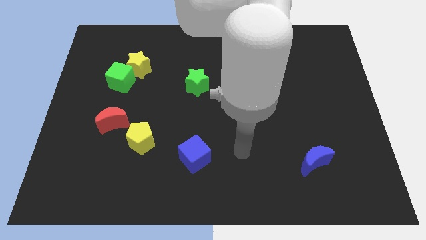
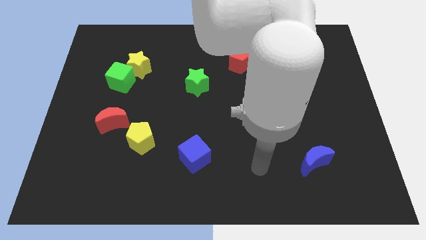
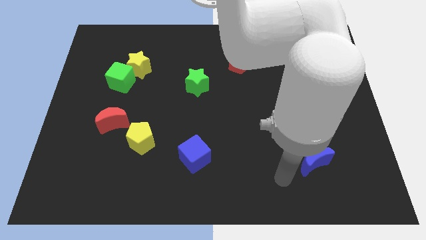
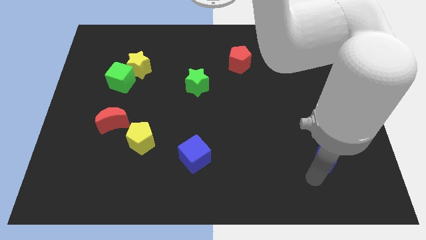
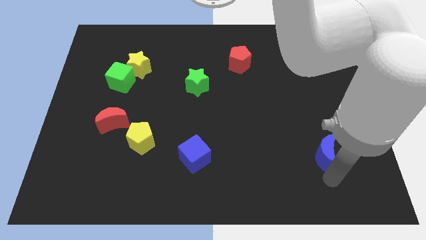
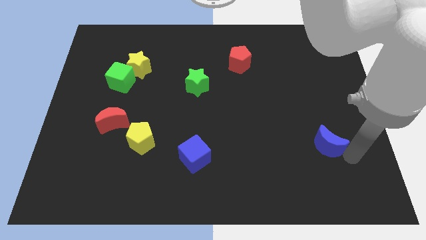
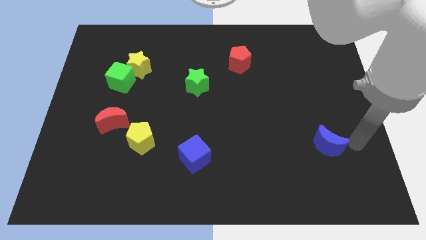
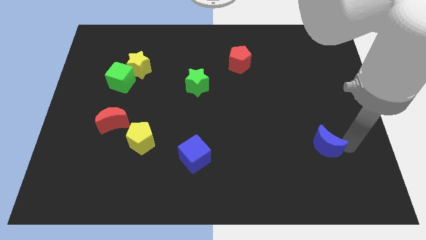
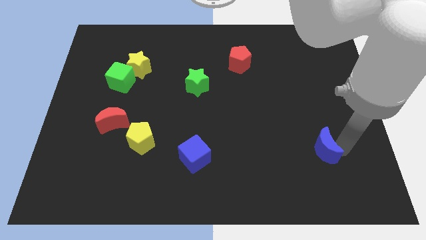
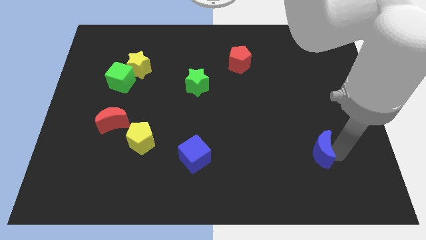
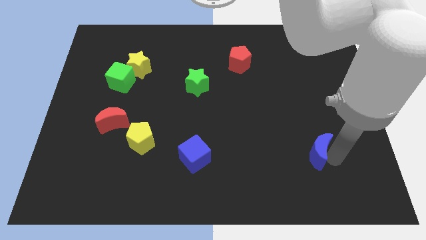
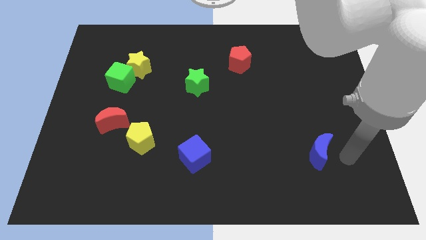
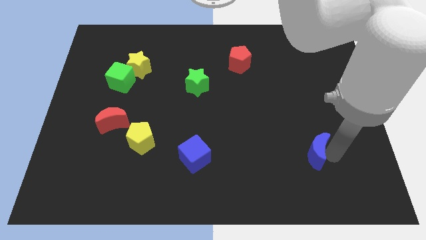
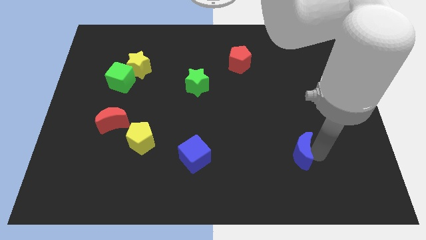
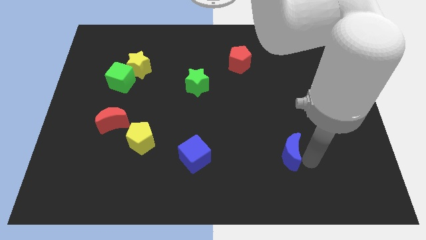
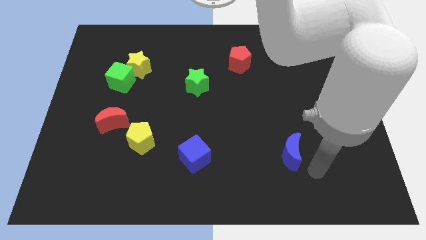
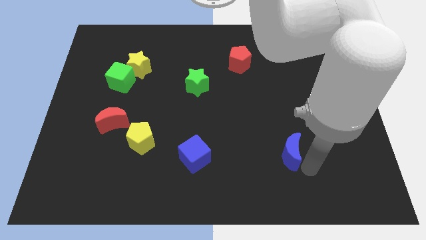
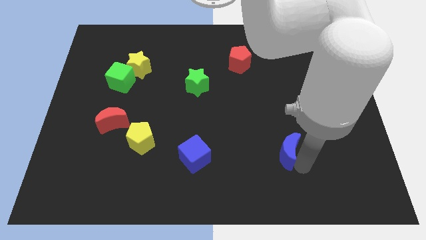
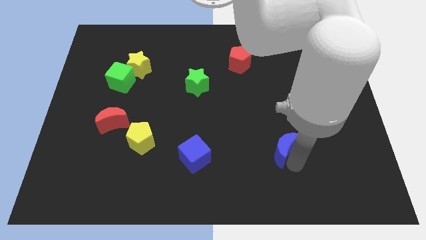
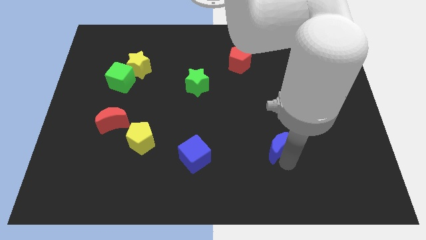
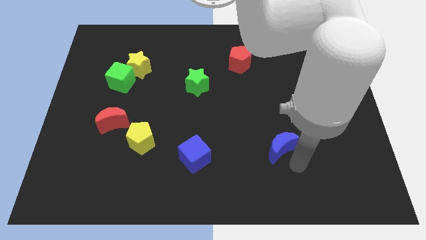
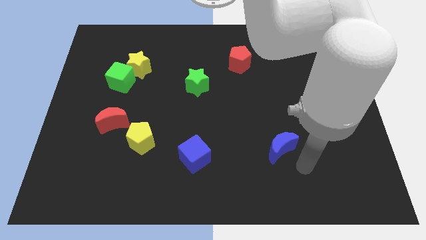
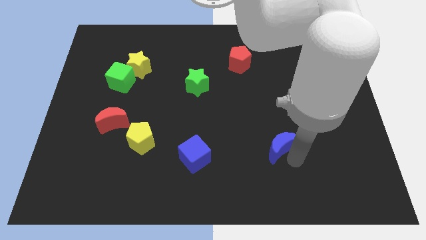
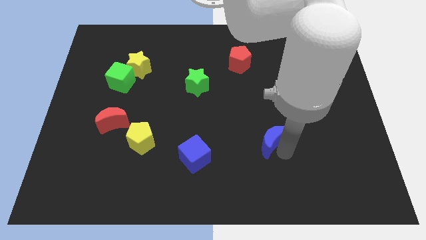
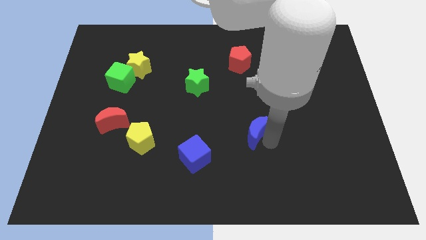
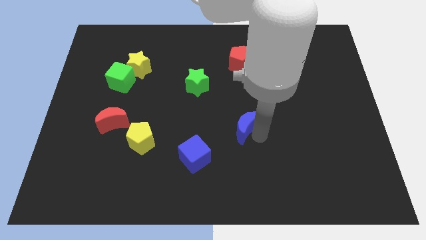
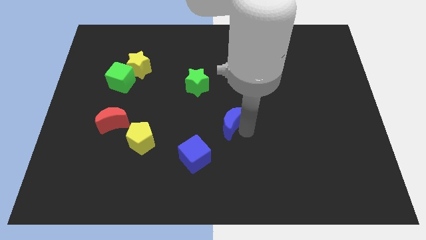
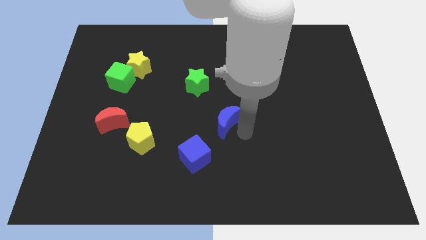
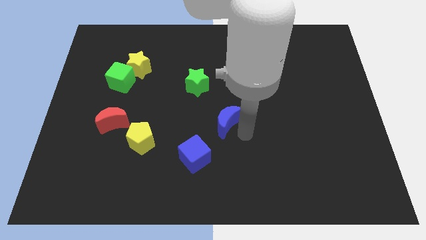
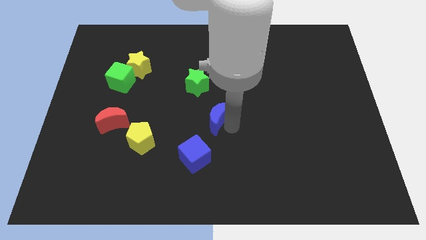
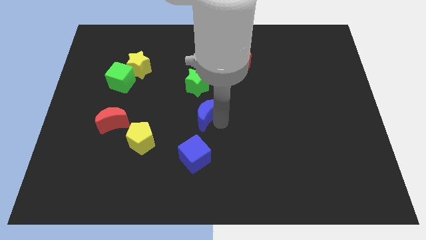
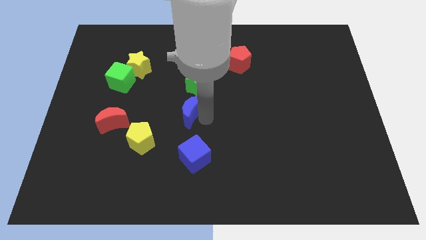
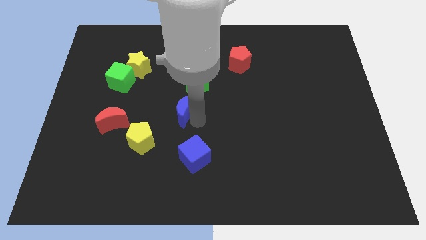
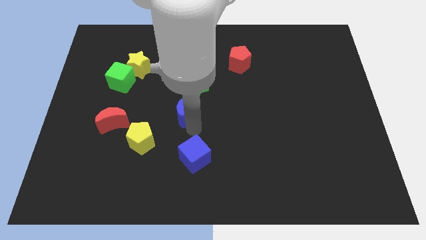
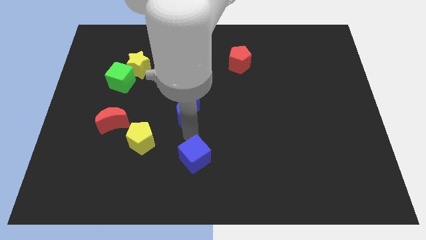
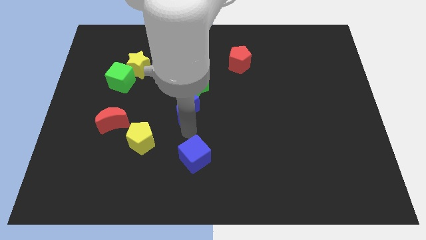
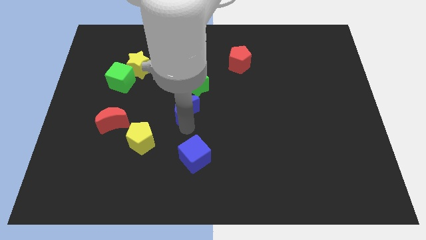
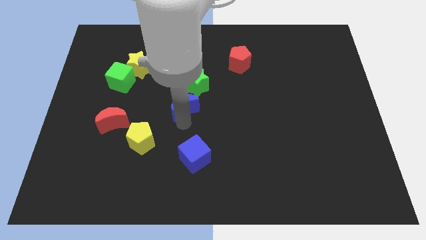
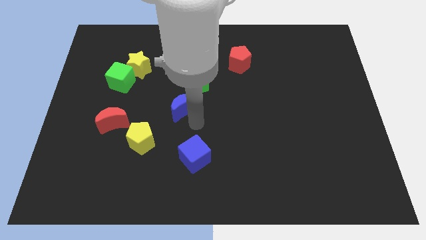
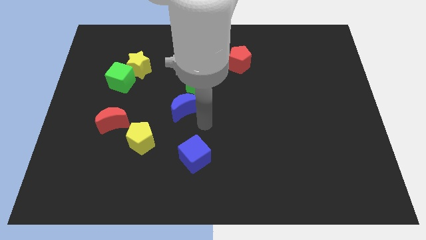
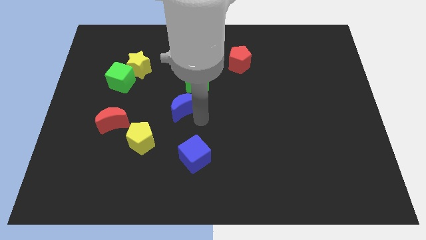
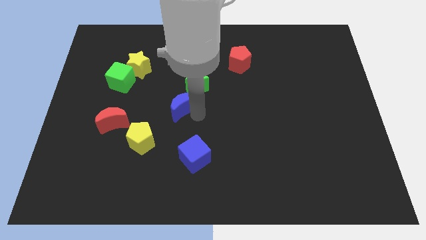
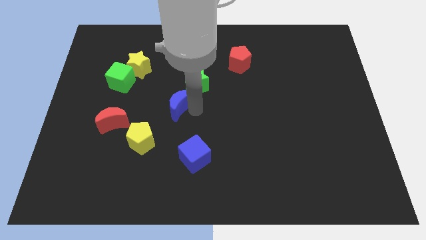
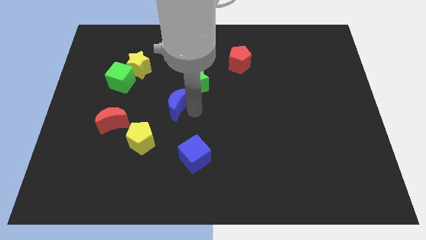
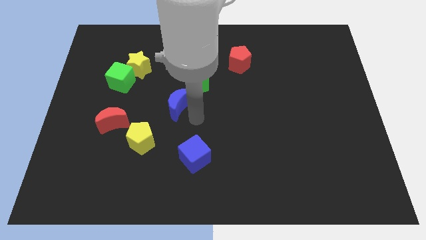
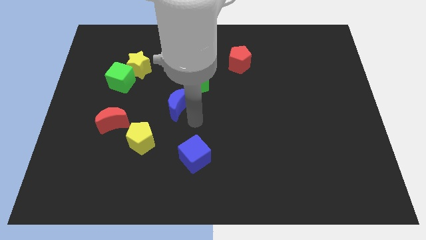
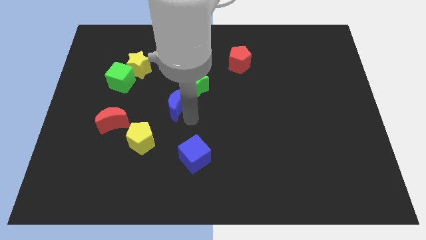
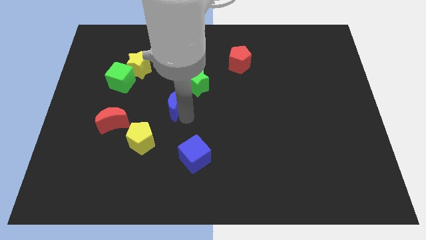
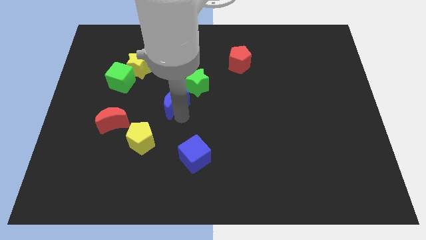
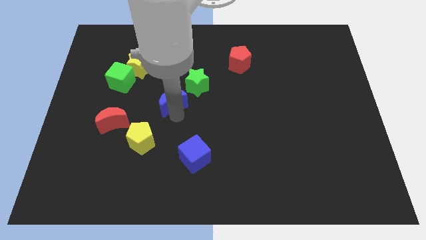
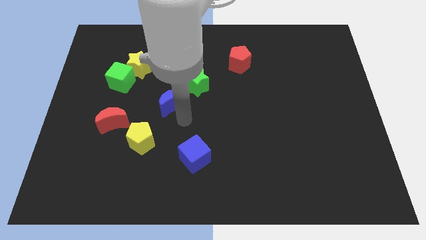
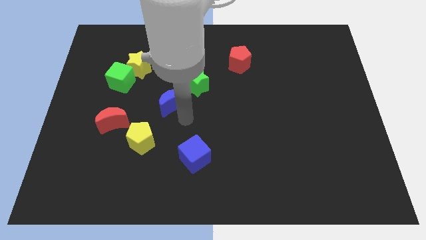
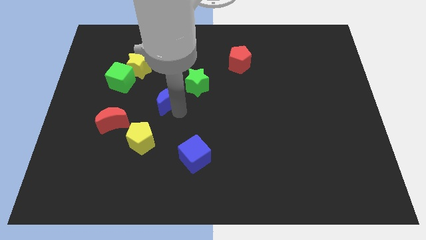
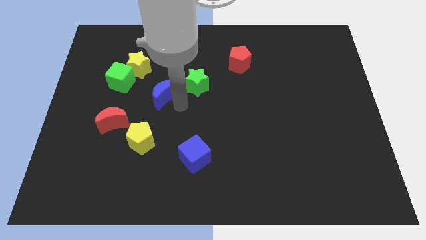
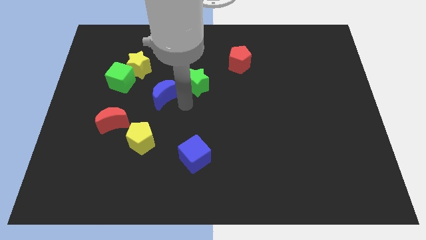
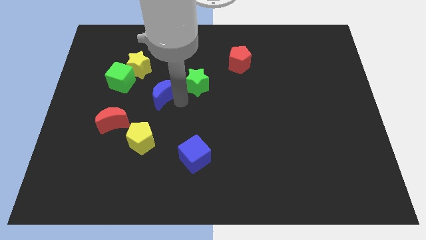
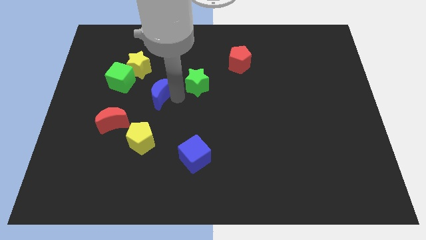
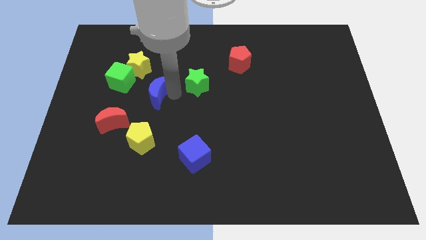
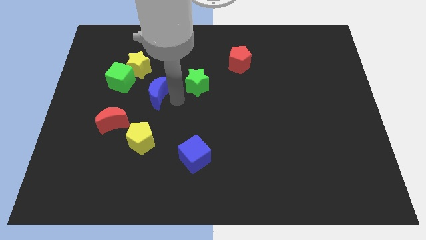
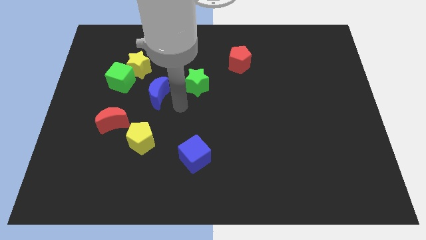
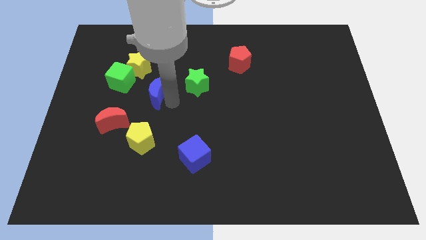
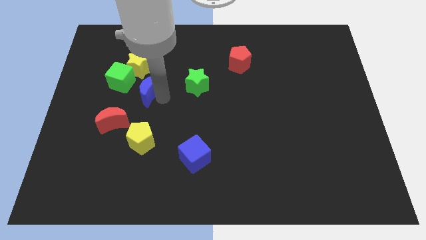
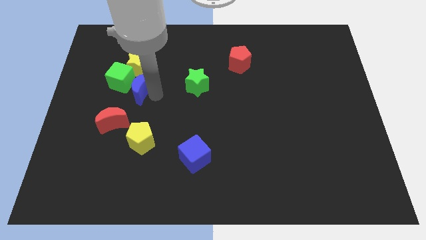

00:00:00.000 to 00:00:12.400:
slide the blue moon close to the green cube

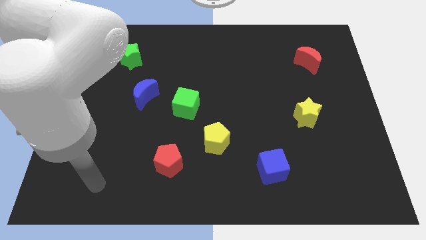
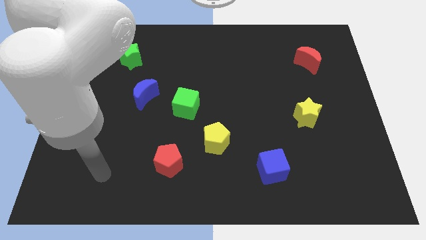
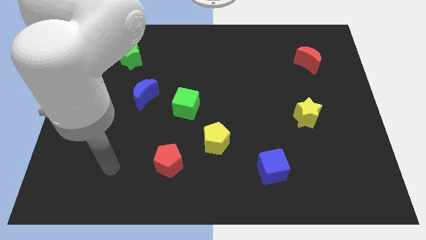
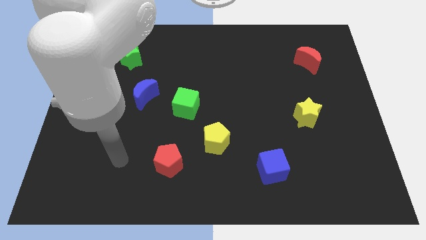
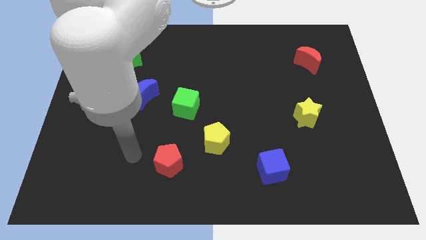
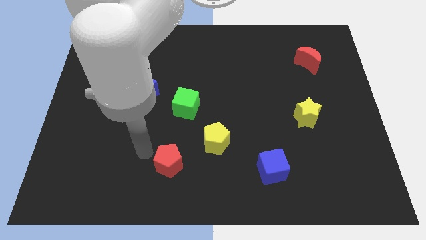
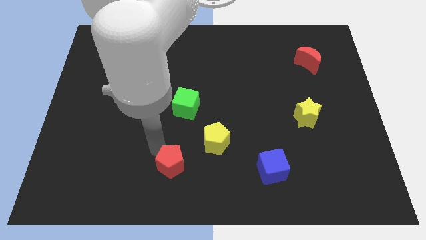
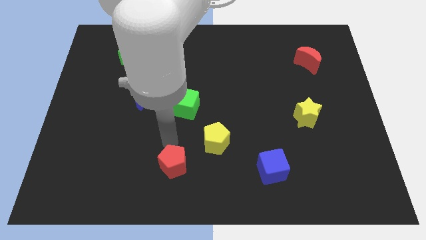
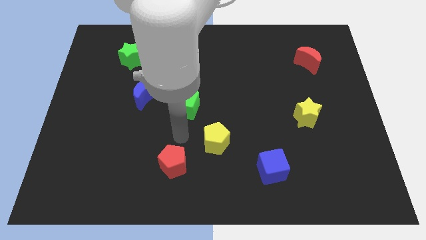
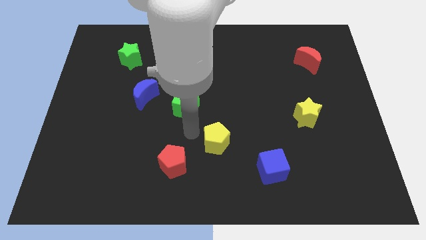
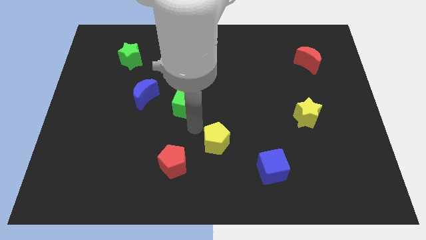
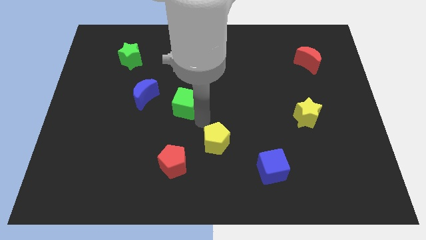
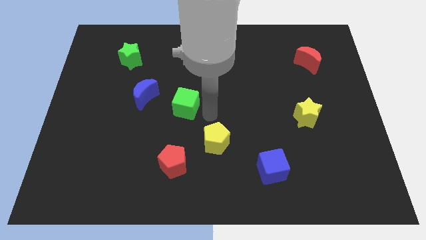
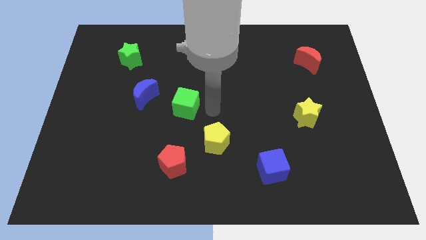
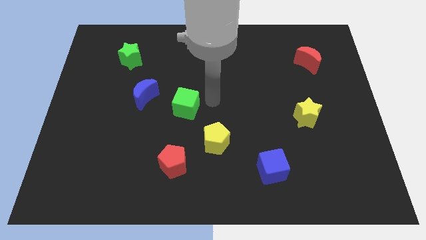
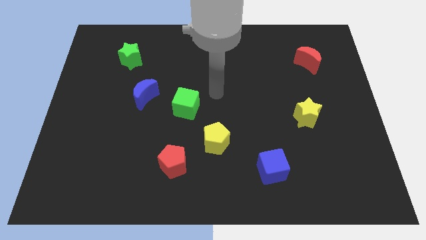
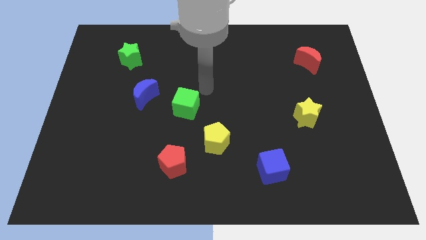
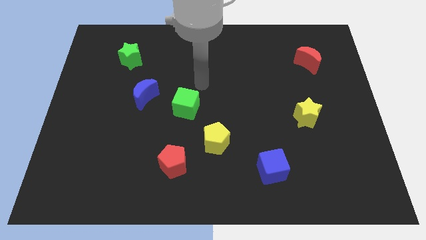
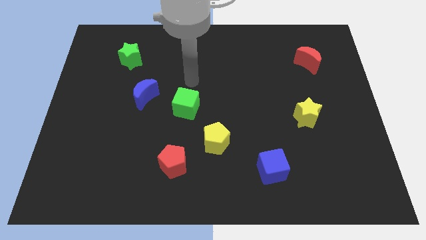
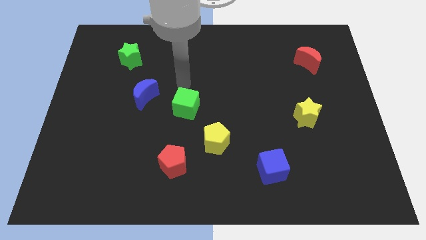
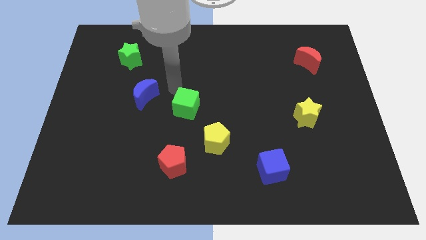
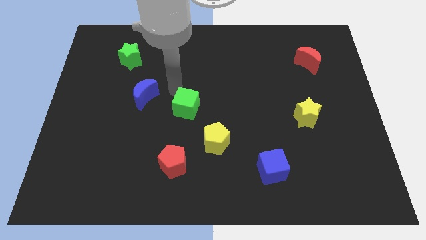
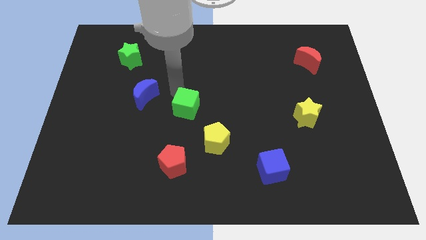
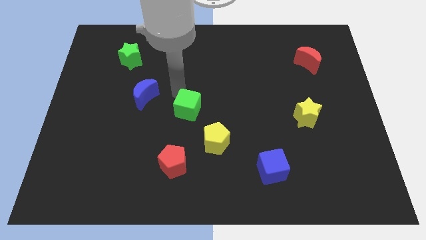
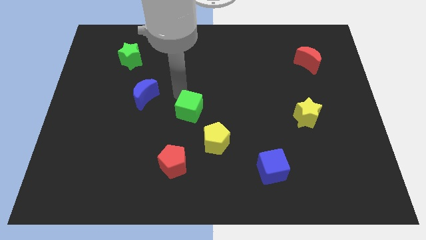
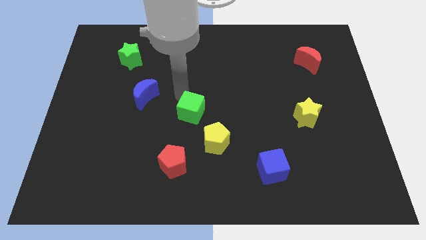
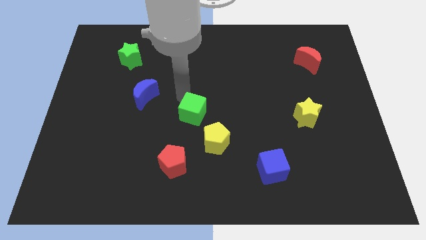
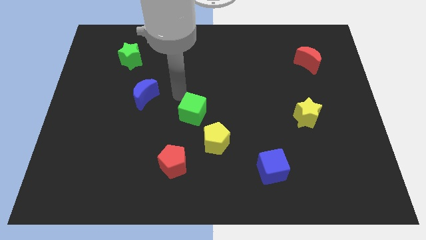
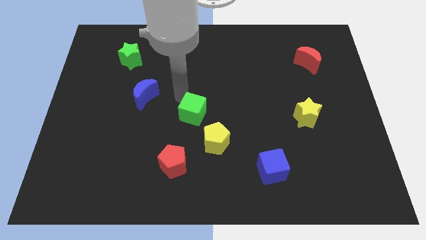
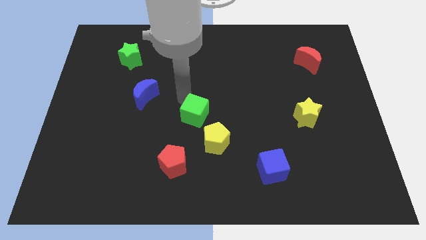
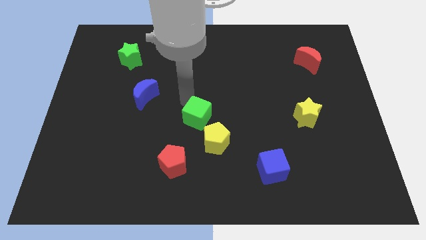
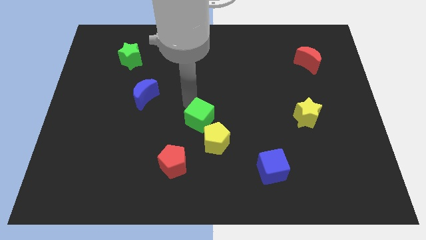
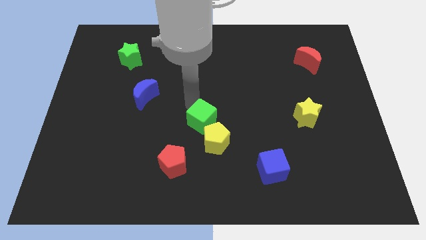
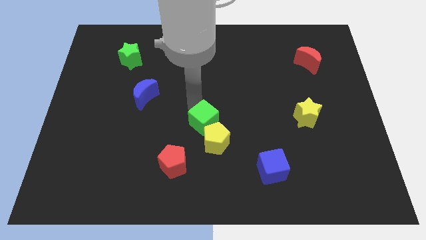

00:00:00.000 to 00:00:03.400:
put the green cube to the yellow pentagon
